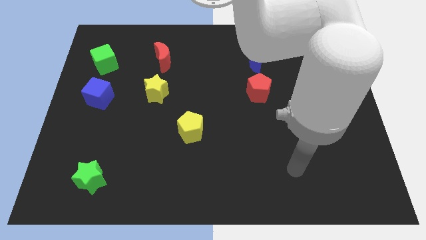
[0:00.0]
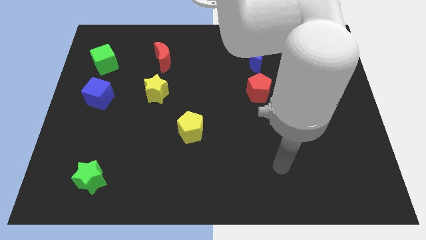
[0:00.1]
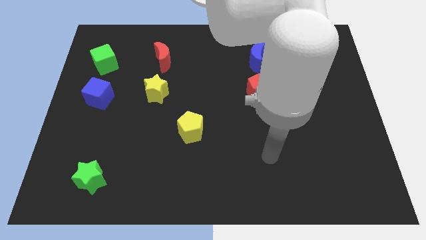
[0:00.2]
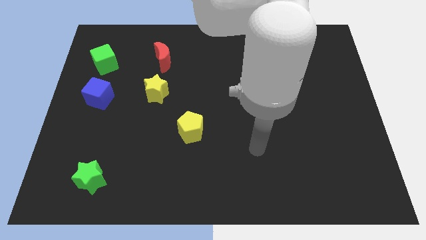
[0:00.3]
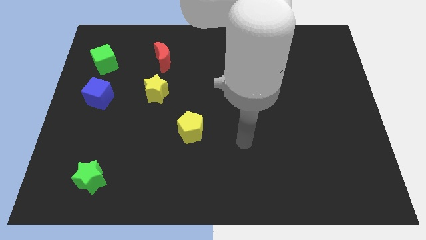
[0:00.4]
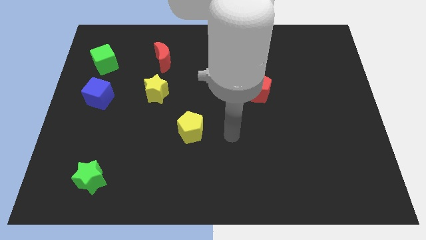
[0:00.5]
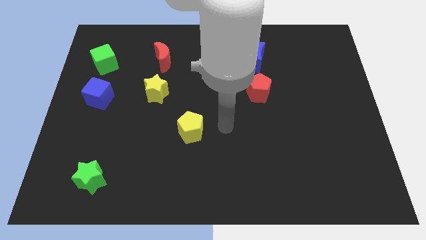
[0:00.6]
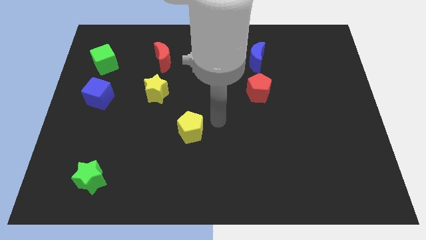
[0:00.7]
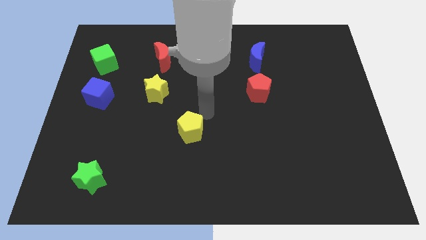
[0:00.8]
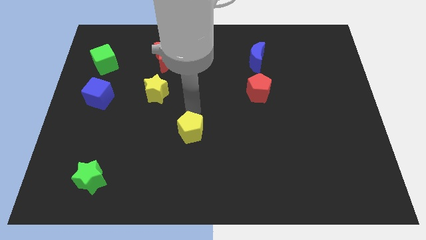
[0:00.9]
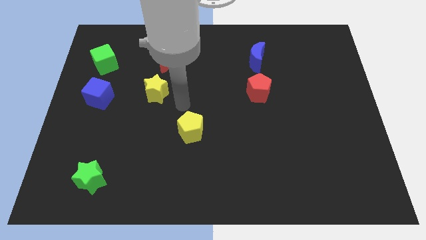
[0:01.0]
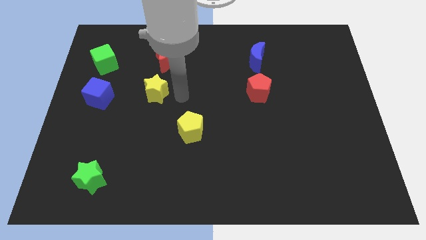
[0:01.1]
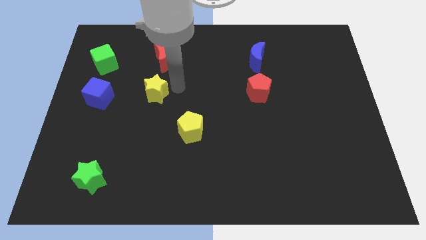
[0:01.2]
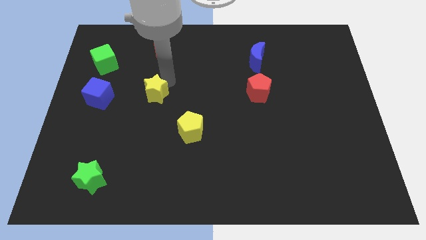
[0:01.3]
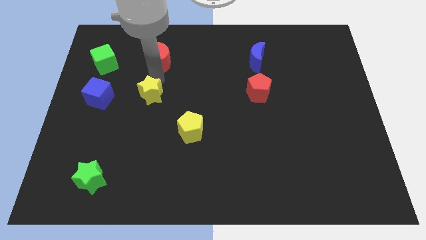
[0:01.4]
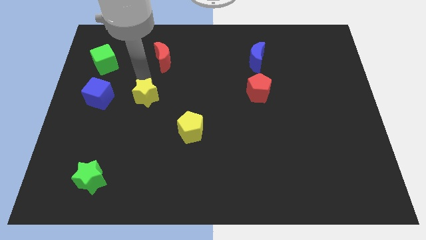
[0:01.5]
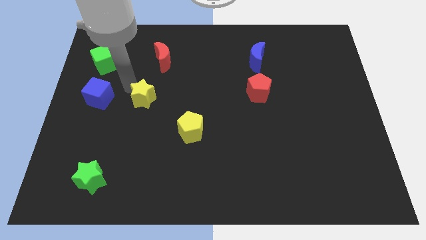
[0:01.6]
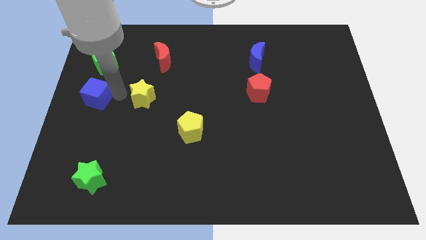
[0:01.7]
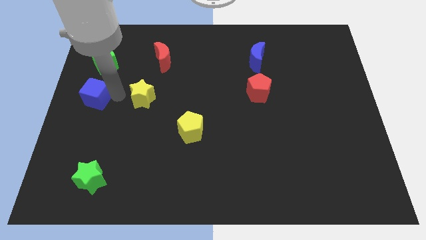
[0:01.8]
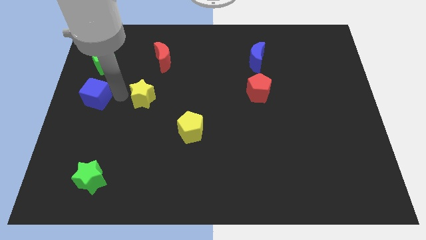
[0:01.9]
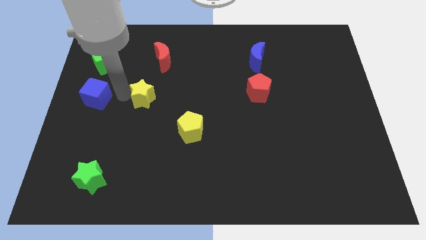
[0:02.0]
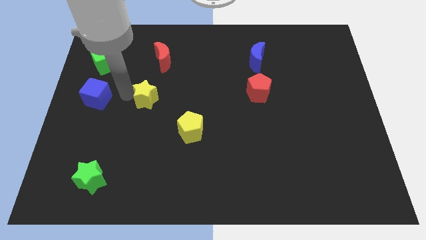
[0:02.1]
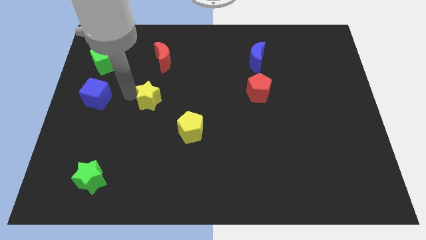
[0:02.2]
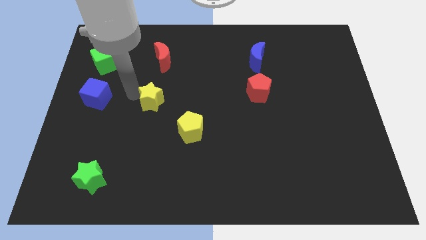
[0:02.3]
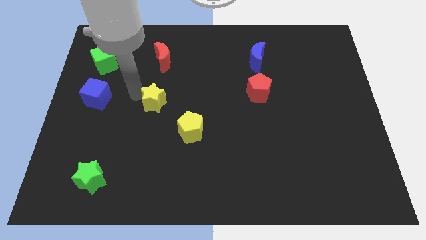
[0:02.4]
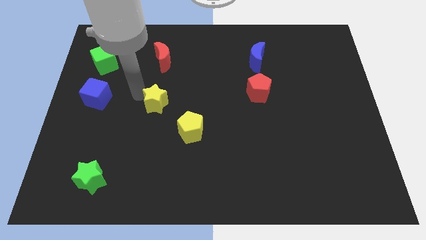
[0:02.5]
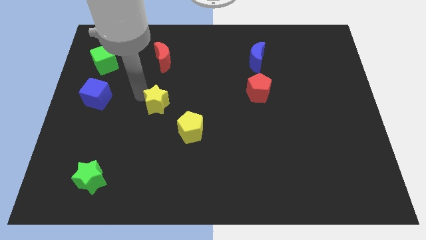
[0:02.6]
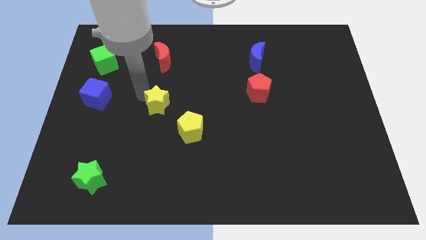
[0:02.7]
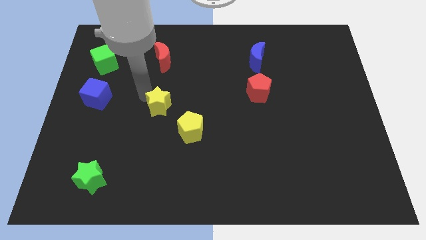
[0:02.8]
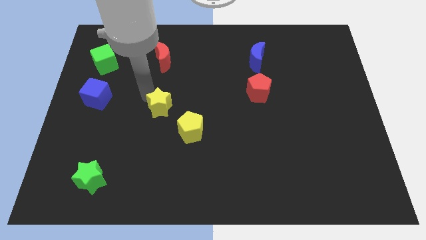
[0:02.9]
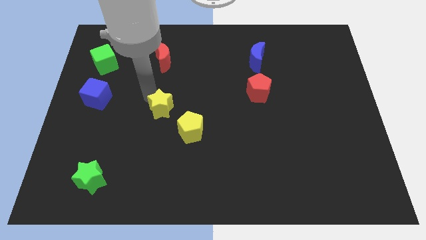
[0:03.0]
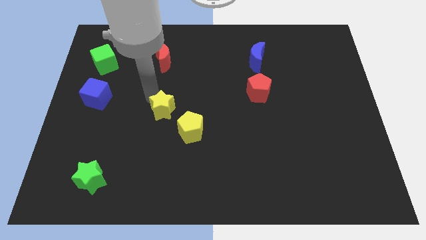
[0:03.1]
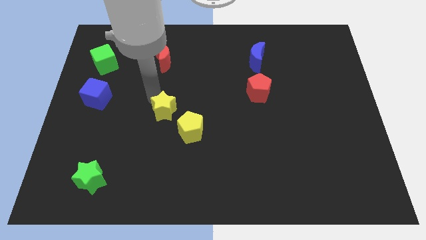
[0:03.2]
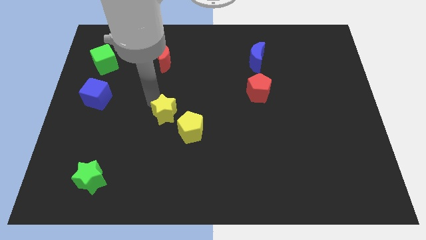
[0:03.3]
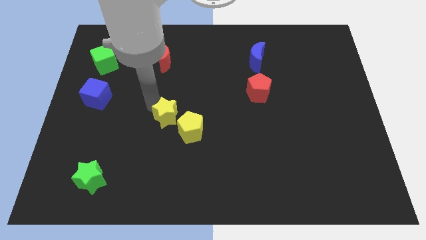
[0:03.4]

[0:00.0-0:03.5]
move the yellow star a little down and then right

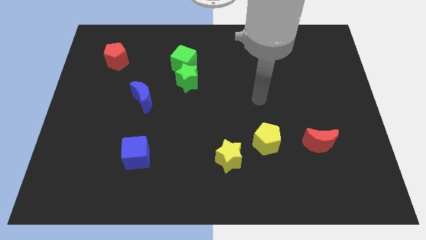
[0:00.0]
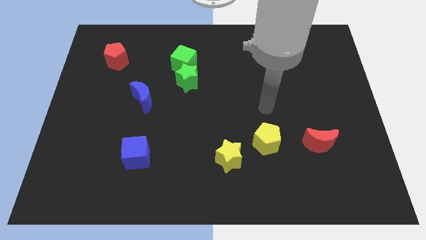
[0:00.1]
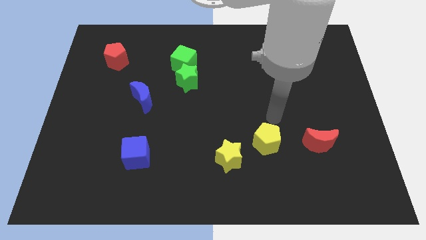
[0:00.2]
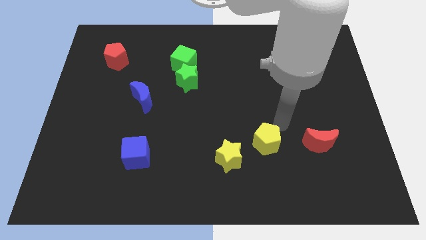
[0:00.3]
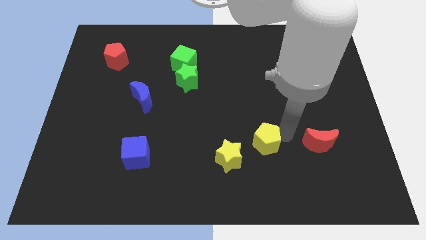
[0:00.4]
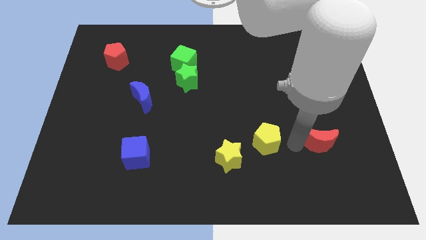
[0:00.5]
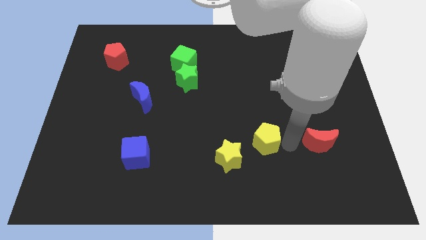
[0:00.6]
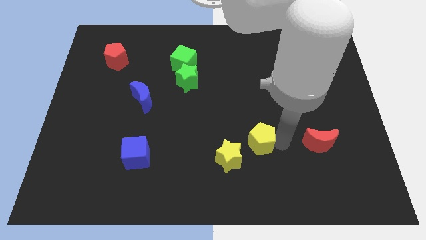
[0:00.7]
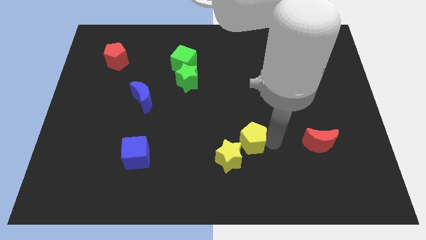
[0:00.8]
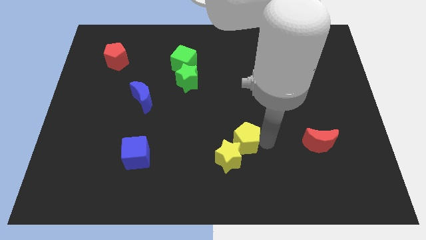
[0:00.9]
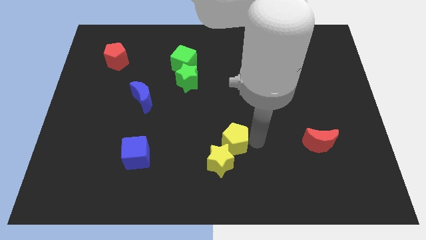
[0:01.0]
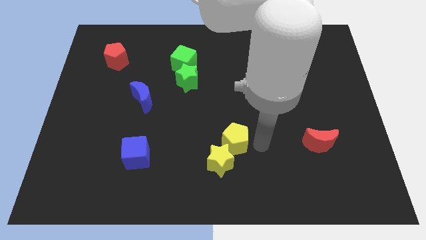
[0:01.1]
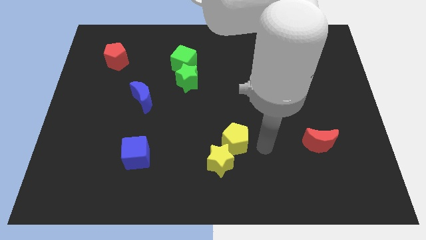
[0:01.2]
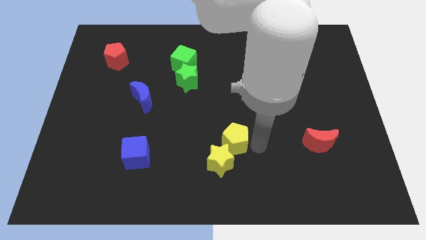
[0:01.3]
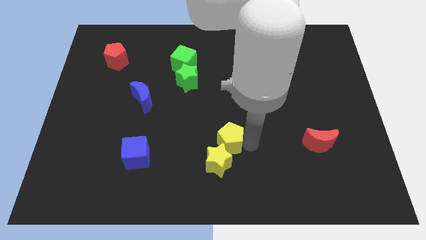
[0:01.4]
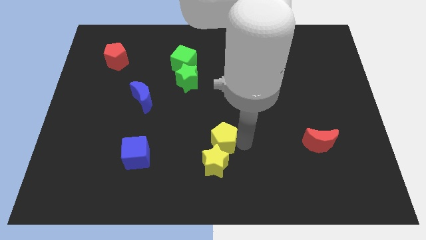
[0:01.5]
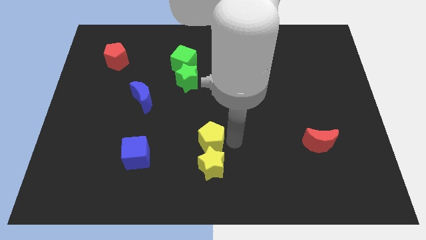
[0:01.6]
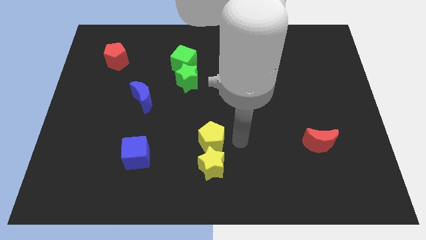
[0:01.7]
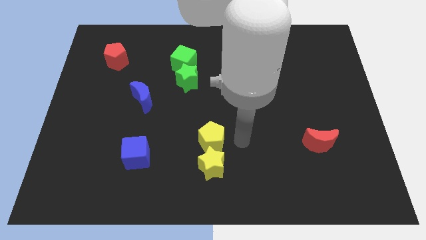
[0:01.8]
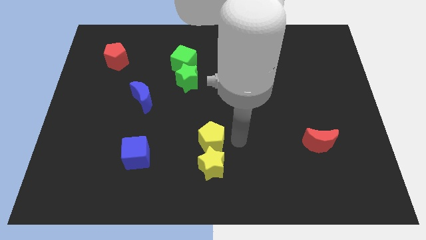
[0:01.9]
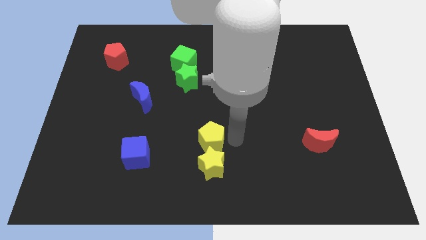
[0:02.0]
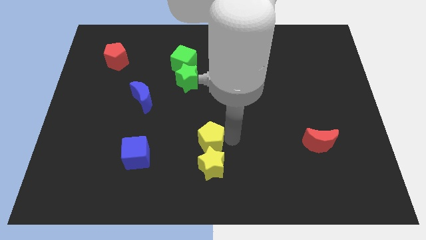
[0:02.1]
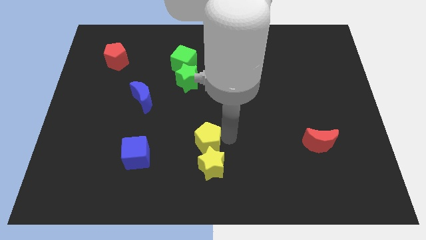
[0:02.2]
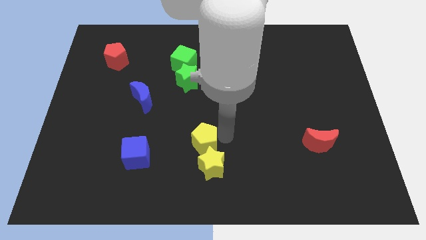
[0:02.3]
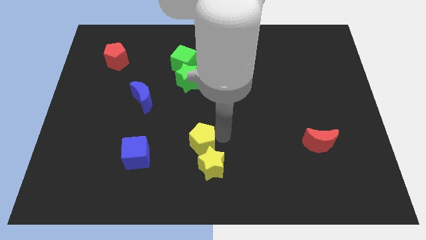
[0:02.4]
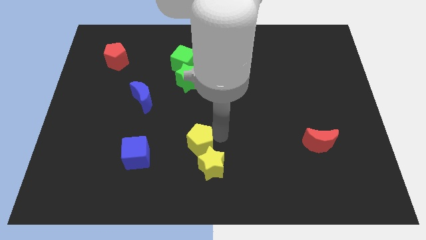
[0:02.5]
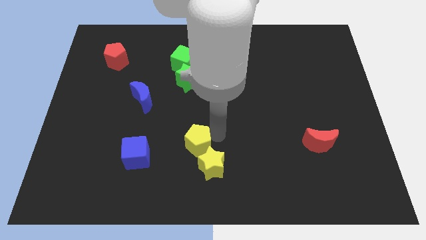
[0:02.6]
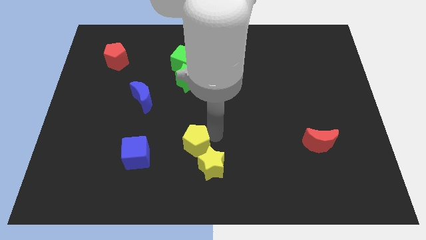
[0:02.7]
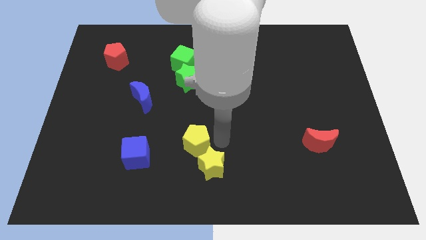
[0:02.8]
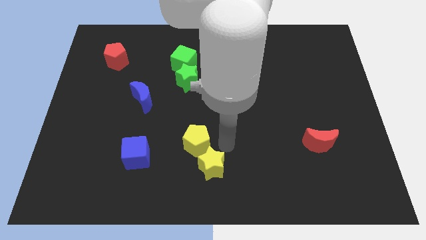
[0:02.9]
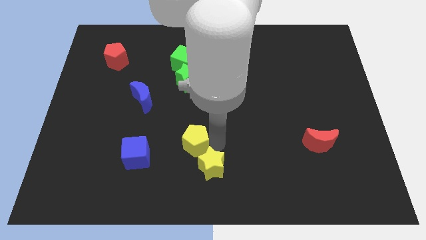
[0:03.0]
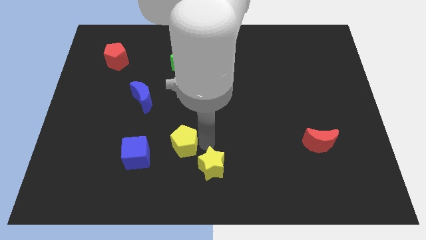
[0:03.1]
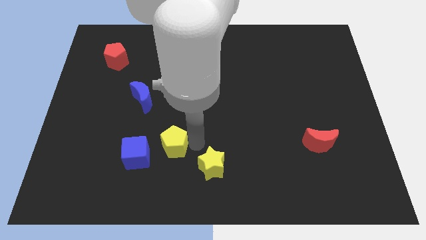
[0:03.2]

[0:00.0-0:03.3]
move the yellow pentagon to the left

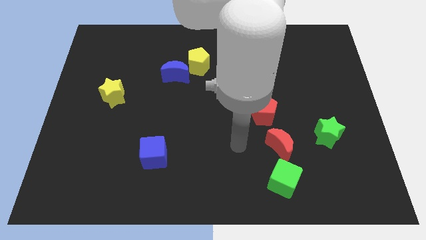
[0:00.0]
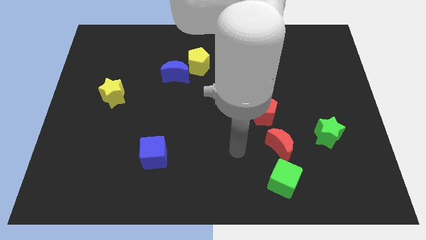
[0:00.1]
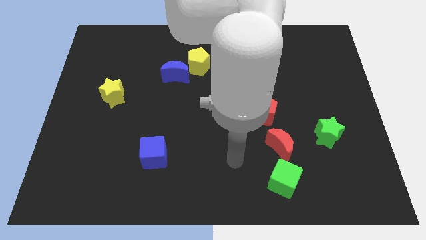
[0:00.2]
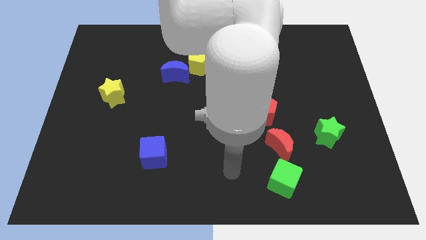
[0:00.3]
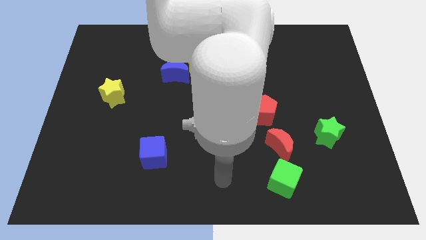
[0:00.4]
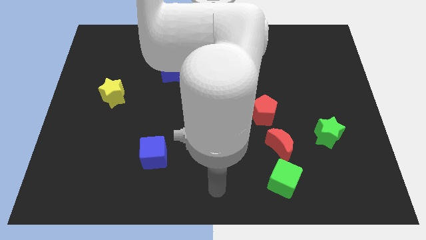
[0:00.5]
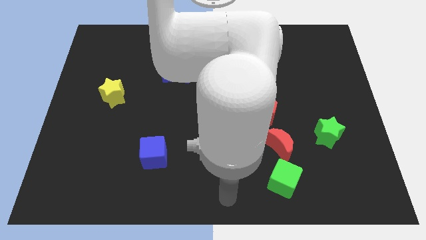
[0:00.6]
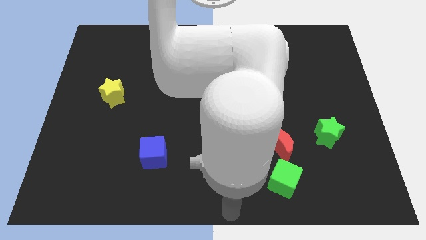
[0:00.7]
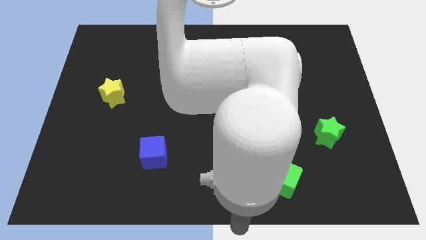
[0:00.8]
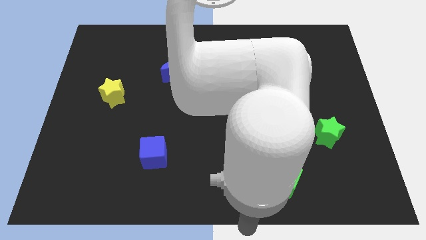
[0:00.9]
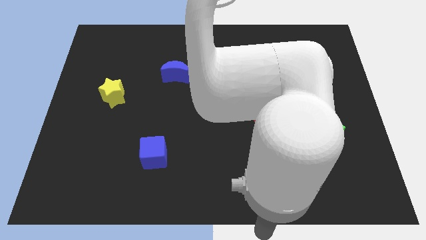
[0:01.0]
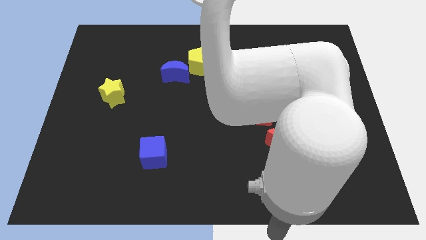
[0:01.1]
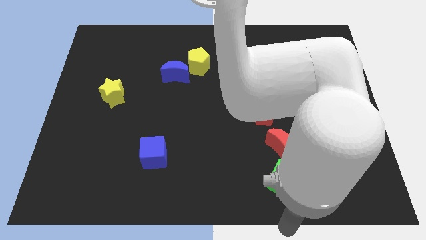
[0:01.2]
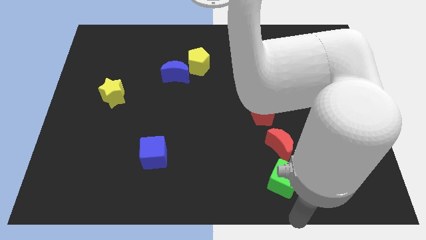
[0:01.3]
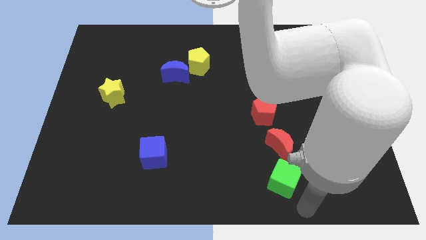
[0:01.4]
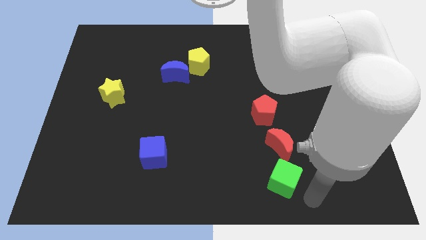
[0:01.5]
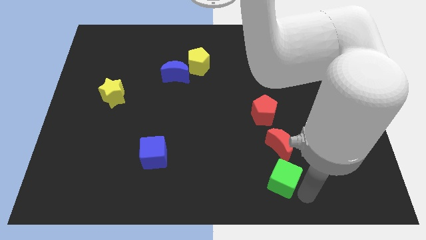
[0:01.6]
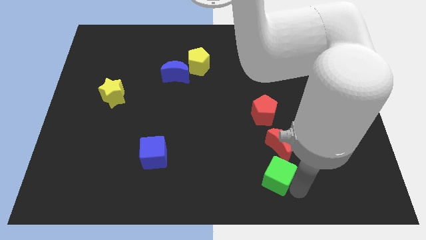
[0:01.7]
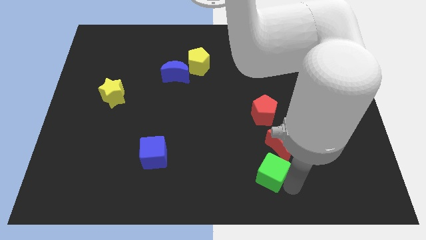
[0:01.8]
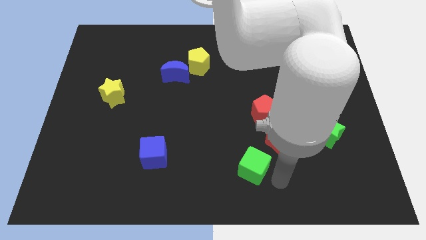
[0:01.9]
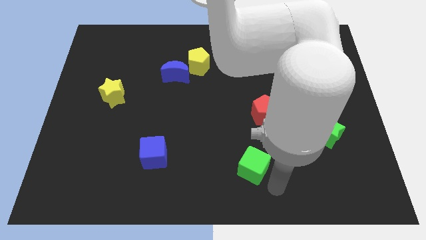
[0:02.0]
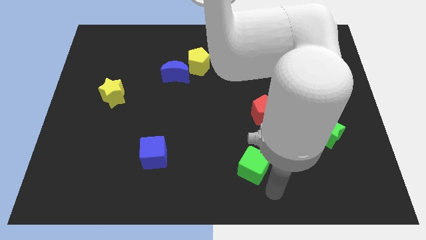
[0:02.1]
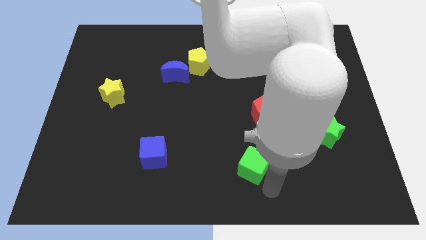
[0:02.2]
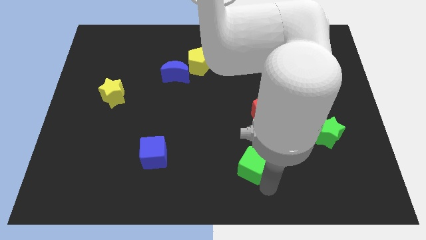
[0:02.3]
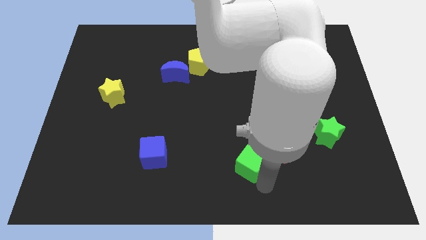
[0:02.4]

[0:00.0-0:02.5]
push the green cube somewhat diagonally up and to the left
